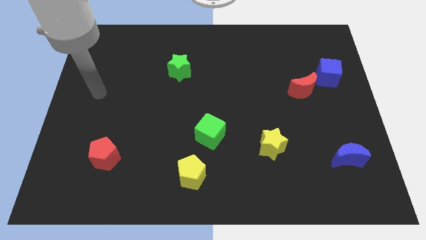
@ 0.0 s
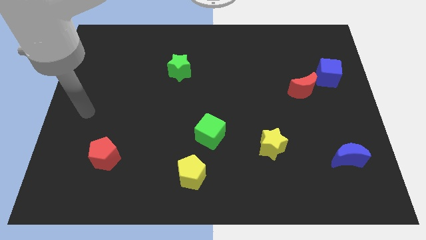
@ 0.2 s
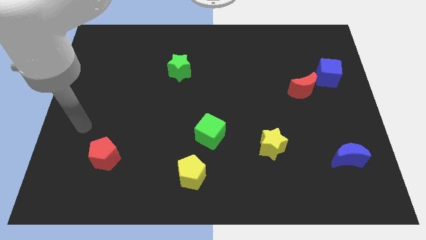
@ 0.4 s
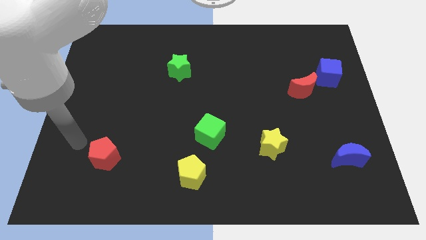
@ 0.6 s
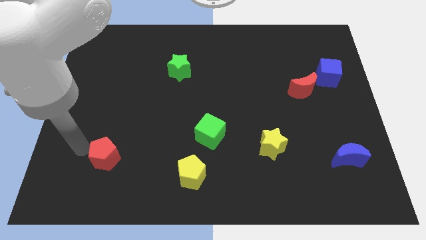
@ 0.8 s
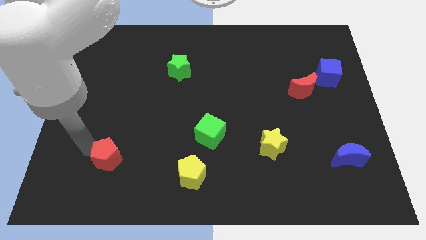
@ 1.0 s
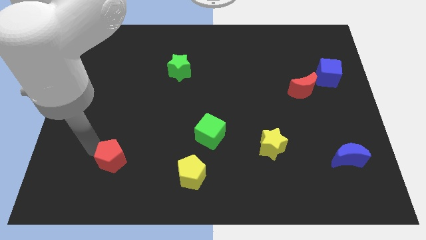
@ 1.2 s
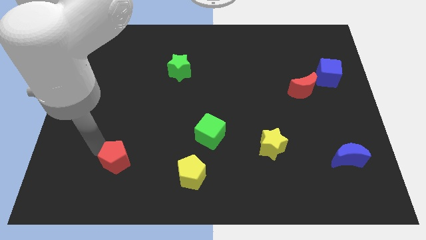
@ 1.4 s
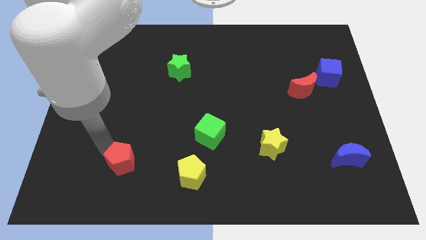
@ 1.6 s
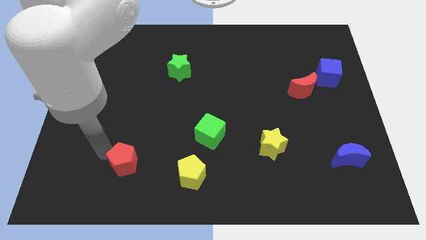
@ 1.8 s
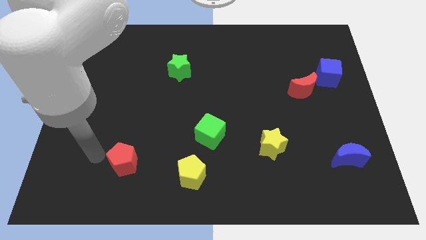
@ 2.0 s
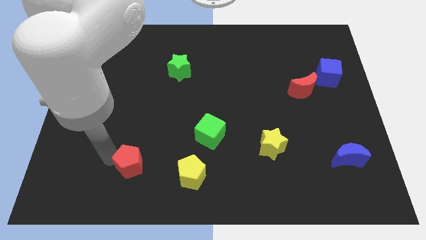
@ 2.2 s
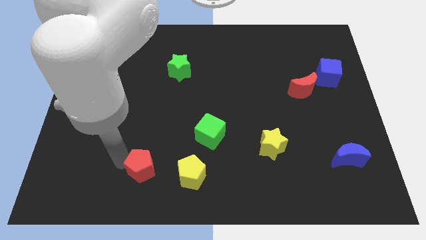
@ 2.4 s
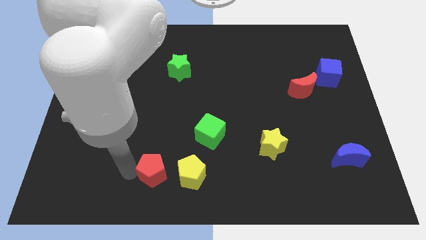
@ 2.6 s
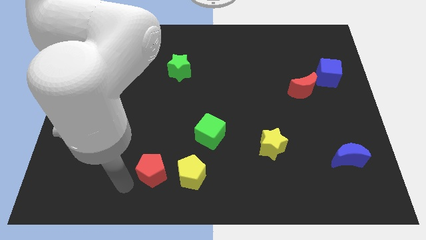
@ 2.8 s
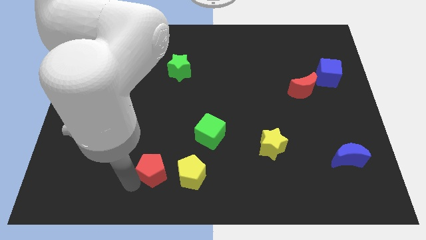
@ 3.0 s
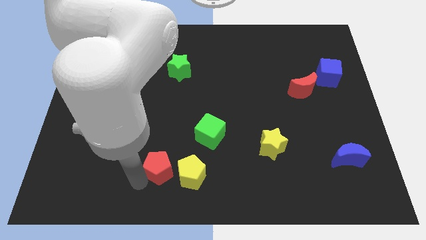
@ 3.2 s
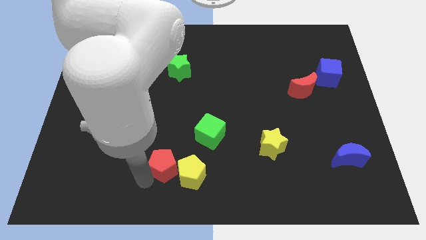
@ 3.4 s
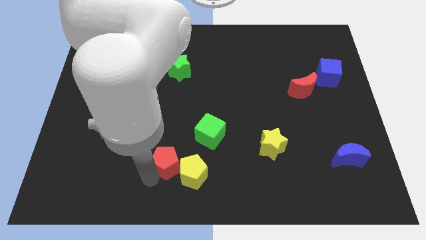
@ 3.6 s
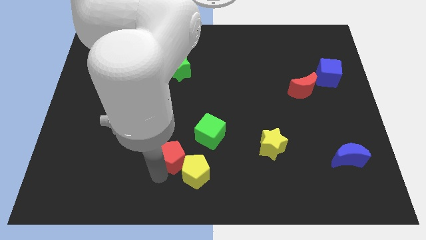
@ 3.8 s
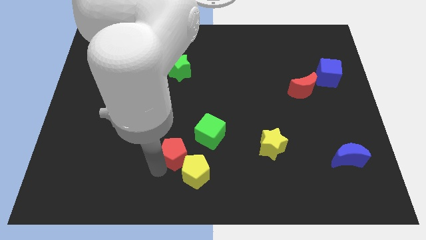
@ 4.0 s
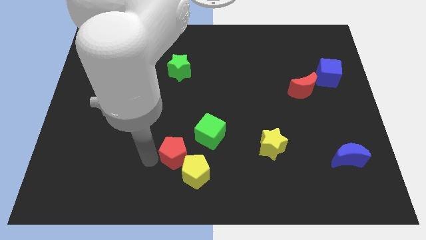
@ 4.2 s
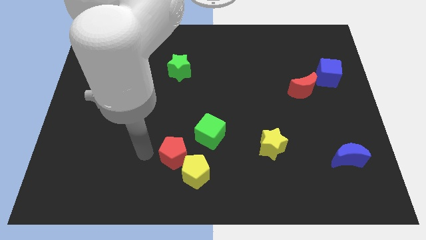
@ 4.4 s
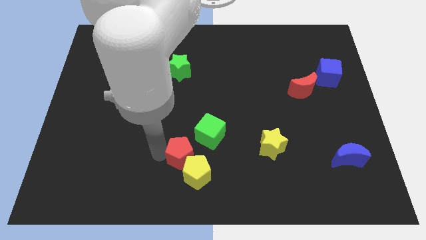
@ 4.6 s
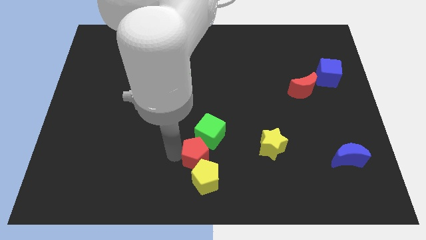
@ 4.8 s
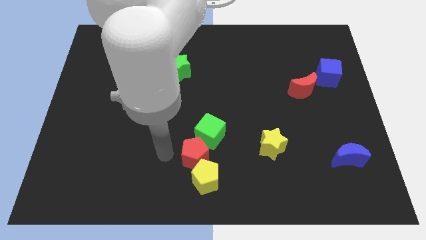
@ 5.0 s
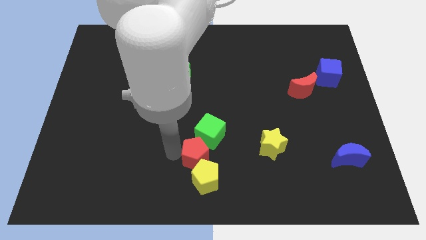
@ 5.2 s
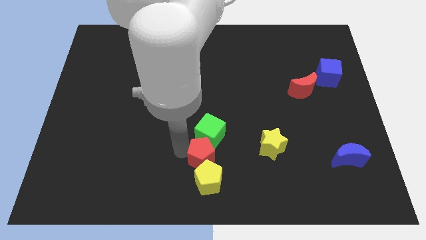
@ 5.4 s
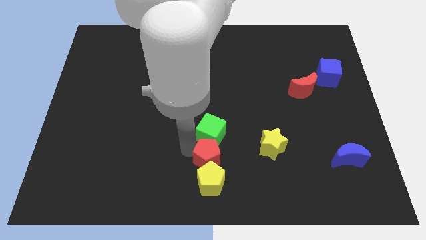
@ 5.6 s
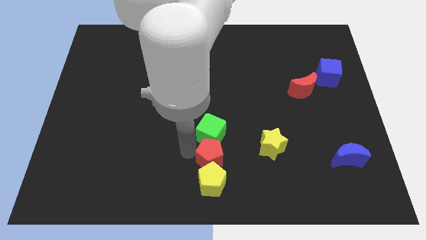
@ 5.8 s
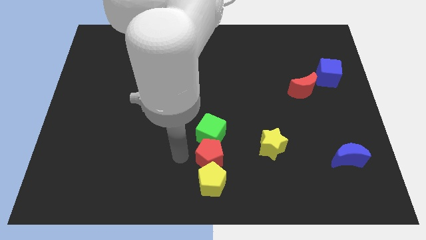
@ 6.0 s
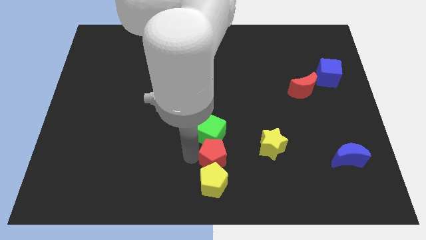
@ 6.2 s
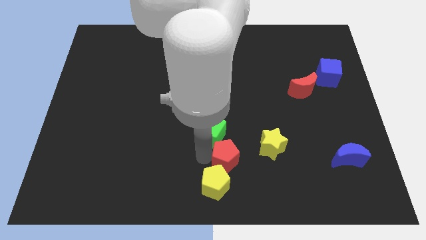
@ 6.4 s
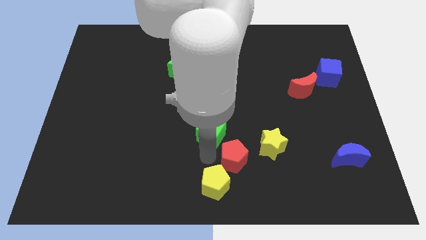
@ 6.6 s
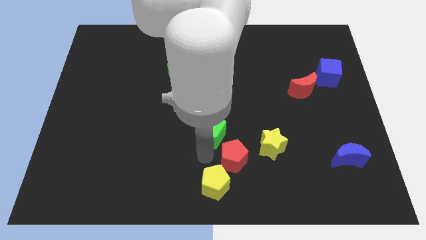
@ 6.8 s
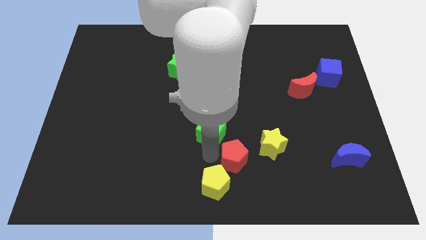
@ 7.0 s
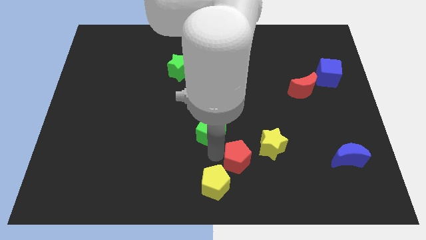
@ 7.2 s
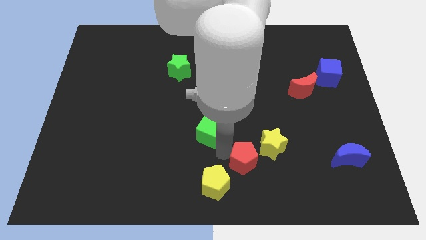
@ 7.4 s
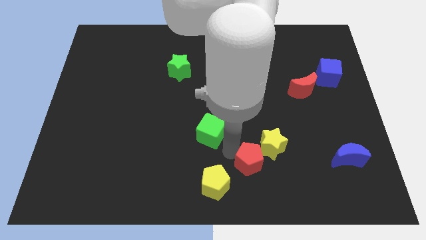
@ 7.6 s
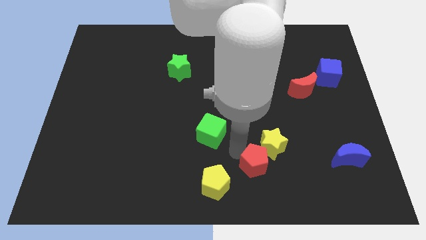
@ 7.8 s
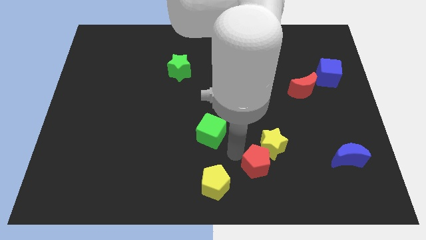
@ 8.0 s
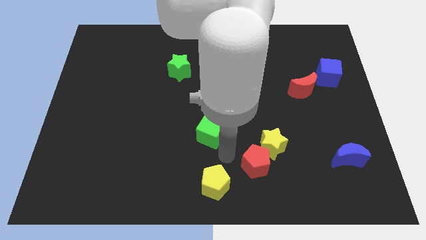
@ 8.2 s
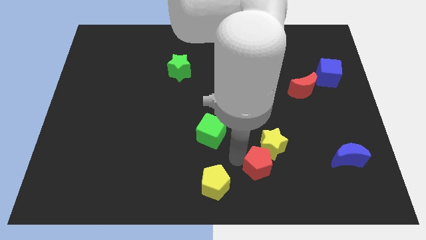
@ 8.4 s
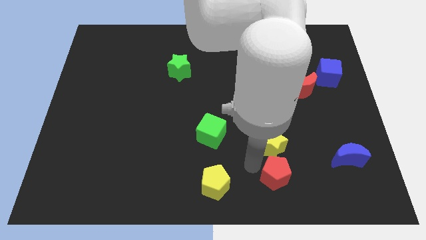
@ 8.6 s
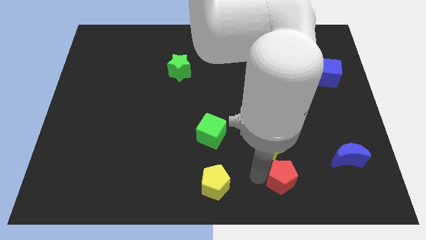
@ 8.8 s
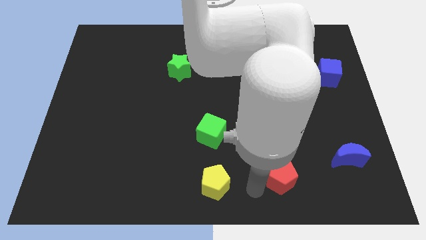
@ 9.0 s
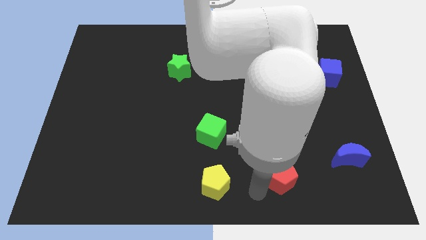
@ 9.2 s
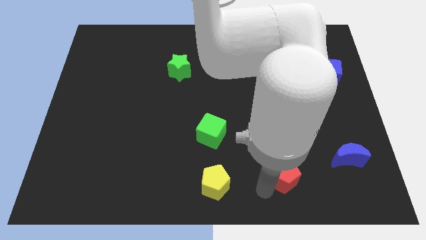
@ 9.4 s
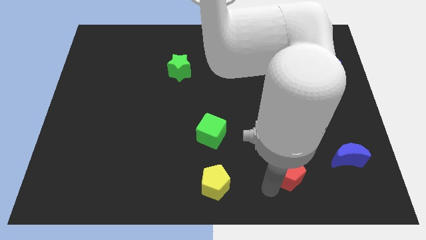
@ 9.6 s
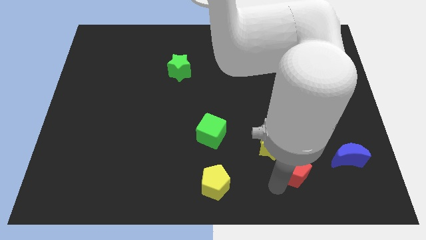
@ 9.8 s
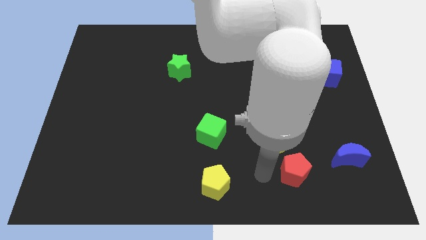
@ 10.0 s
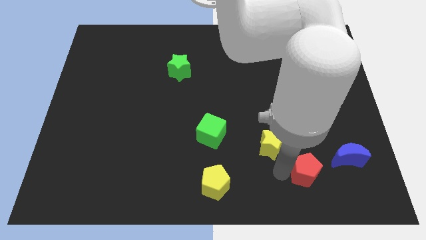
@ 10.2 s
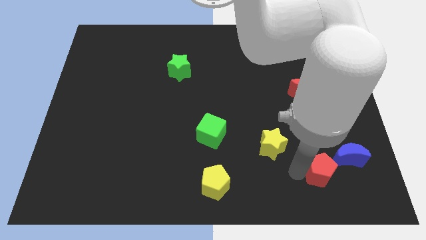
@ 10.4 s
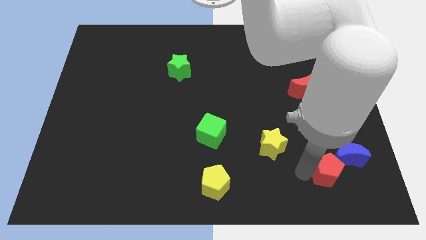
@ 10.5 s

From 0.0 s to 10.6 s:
push the red pentagon to the blue moon

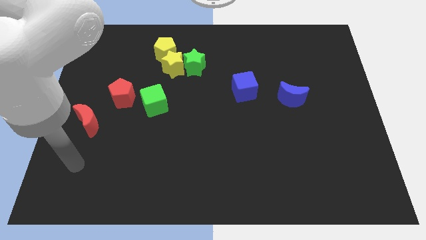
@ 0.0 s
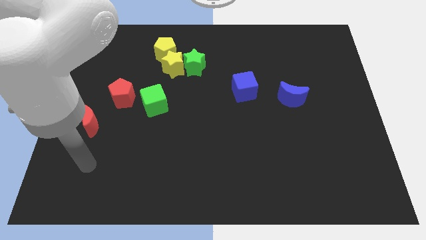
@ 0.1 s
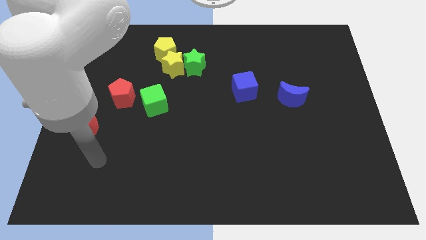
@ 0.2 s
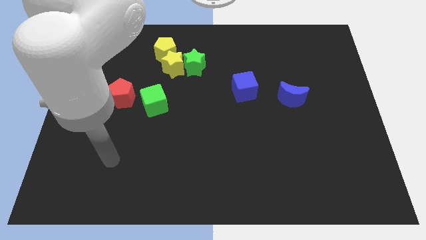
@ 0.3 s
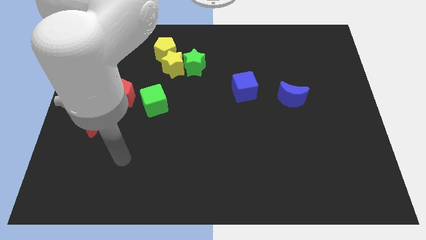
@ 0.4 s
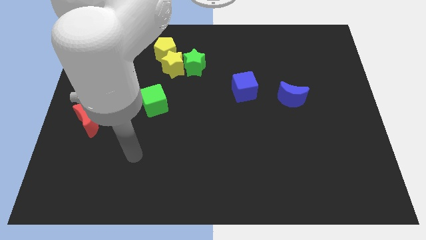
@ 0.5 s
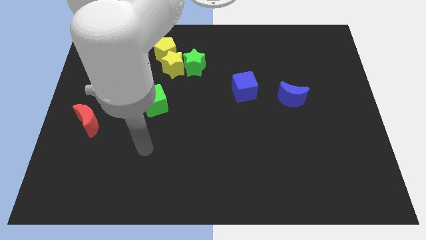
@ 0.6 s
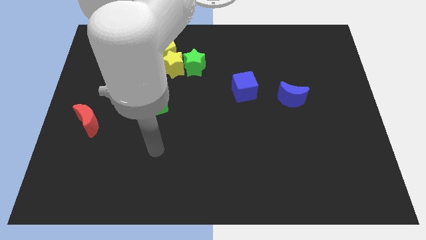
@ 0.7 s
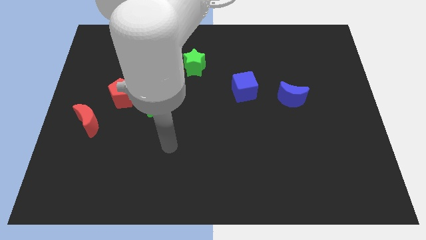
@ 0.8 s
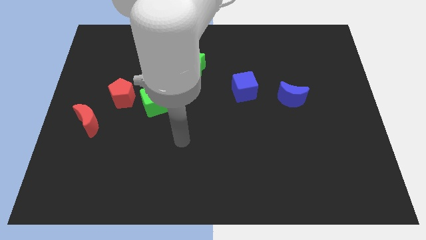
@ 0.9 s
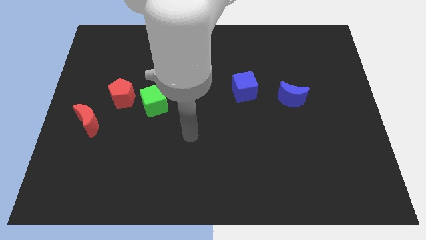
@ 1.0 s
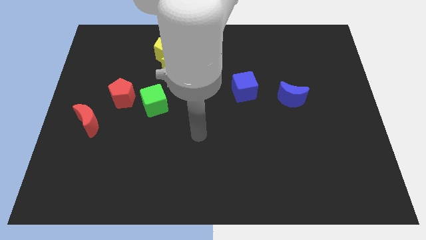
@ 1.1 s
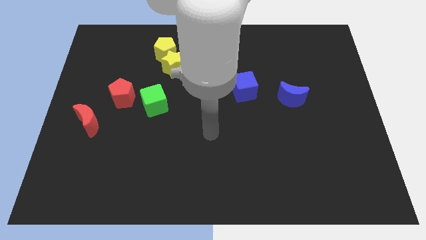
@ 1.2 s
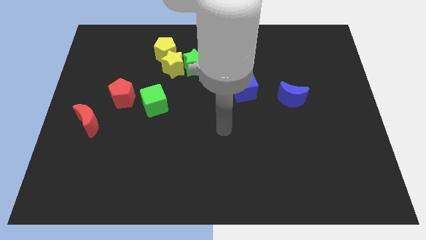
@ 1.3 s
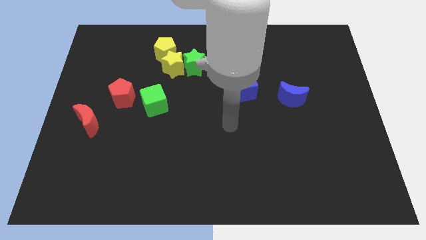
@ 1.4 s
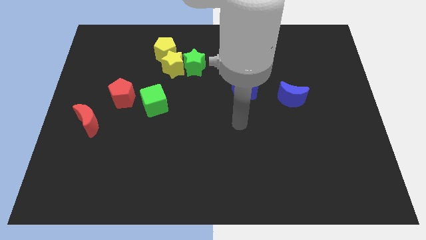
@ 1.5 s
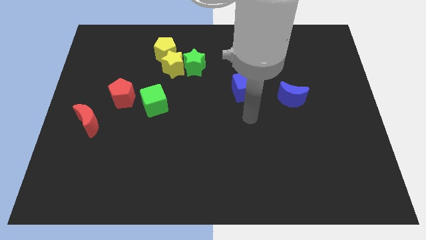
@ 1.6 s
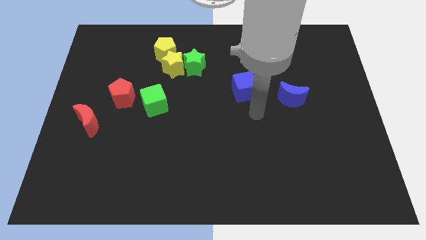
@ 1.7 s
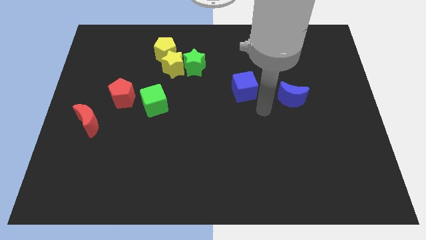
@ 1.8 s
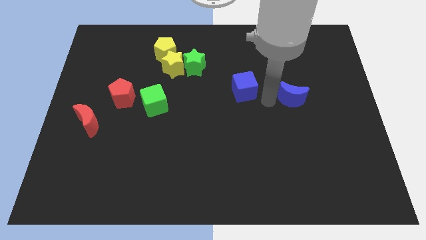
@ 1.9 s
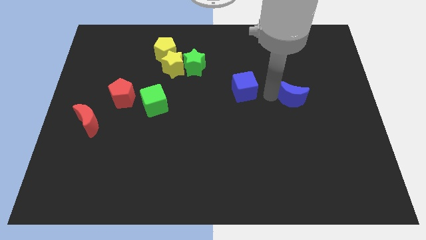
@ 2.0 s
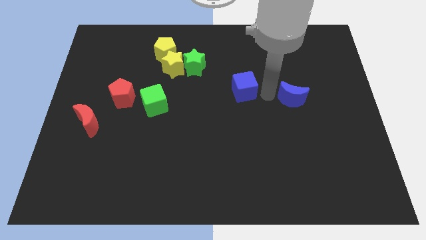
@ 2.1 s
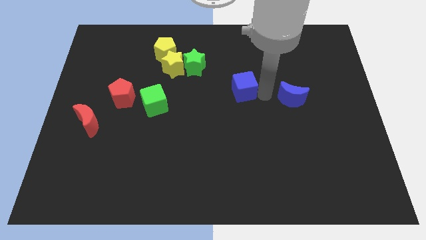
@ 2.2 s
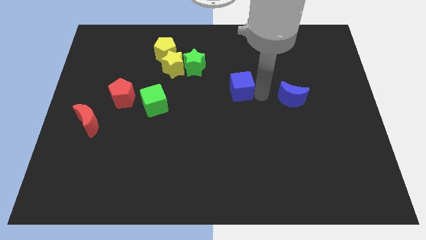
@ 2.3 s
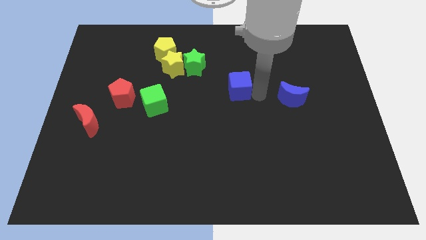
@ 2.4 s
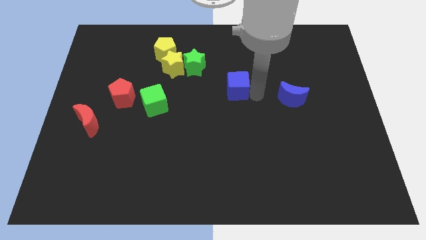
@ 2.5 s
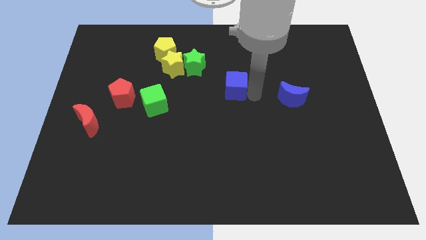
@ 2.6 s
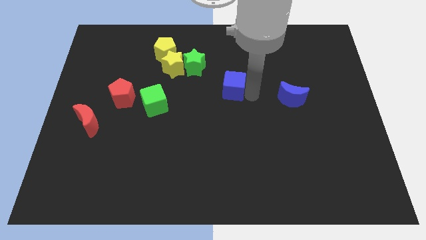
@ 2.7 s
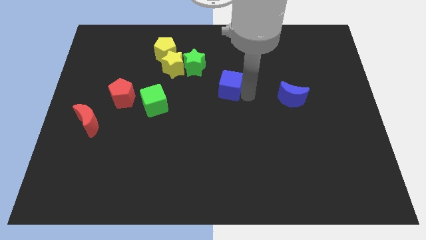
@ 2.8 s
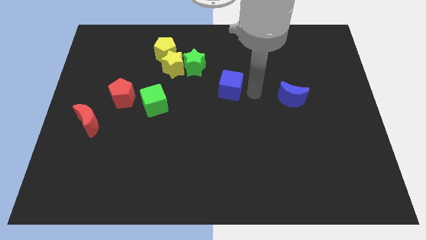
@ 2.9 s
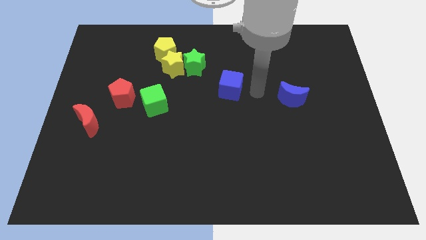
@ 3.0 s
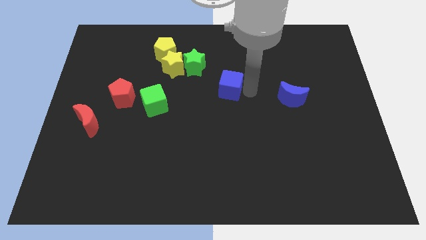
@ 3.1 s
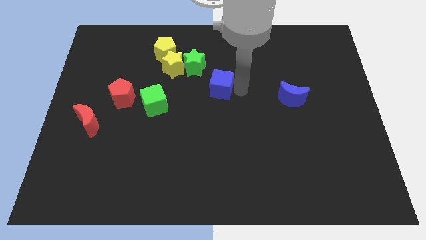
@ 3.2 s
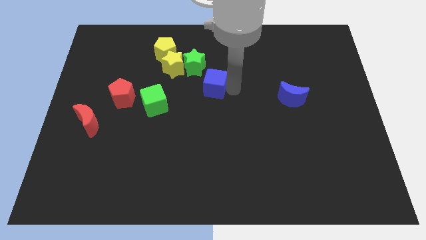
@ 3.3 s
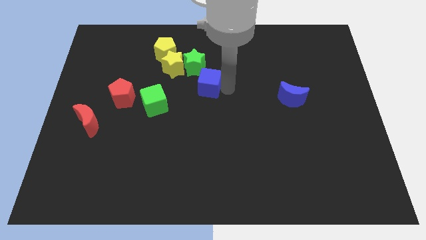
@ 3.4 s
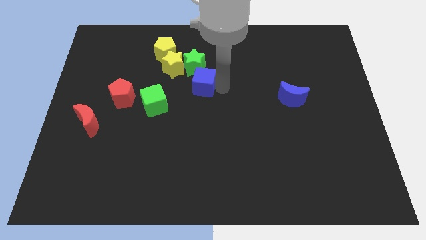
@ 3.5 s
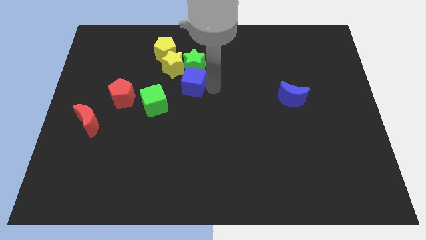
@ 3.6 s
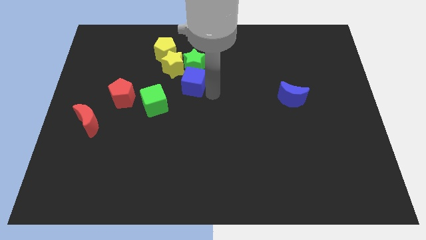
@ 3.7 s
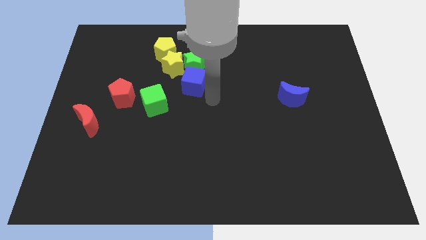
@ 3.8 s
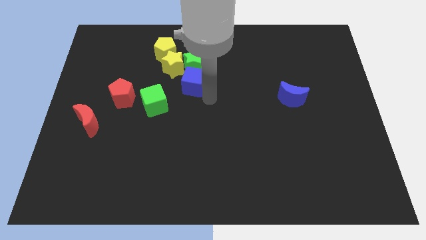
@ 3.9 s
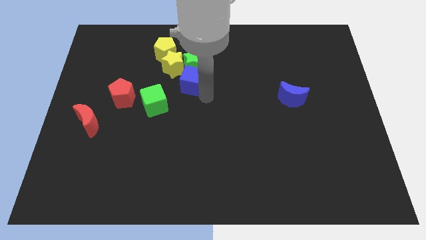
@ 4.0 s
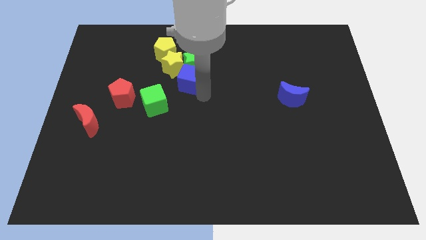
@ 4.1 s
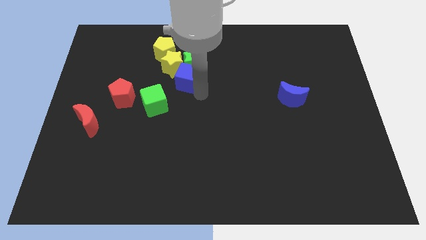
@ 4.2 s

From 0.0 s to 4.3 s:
put the blue cube to the yellow star
